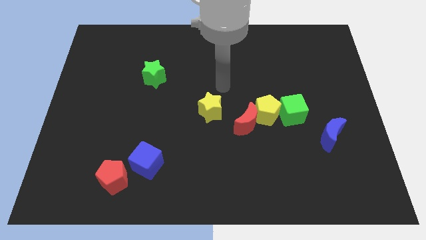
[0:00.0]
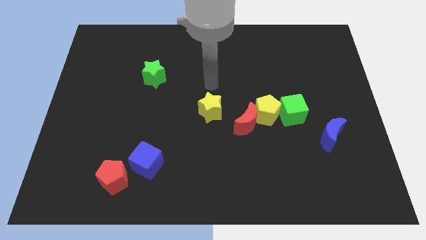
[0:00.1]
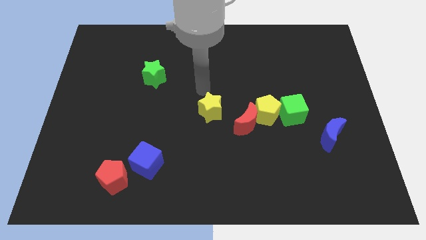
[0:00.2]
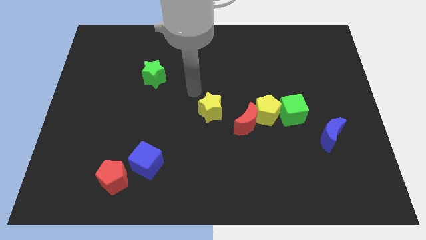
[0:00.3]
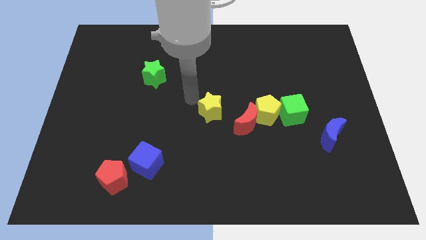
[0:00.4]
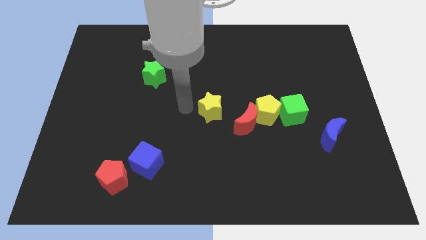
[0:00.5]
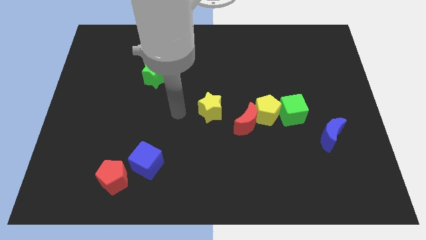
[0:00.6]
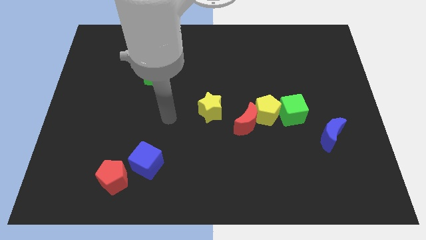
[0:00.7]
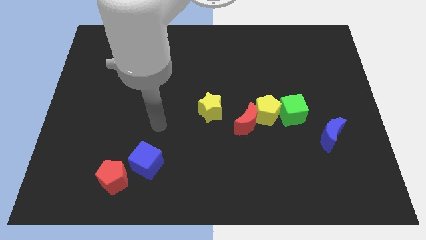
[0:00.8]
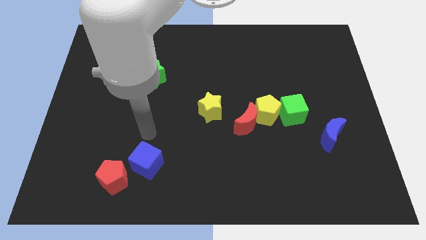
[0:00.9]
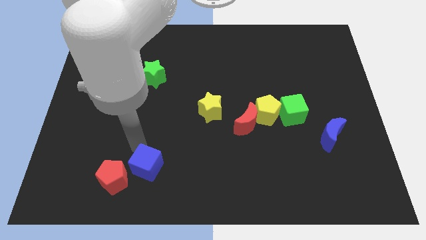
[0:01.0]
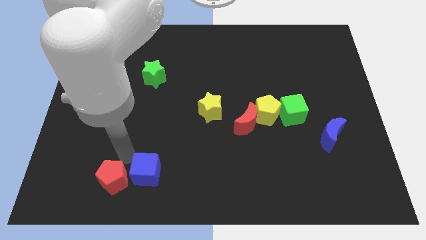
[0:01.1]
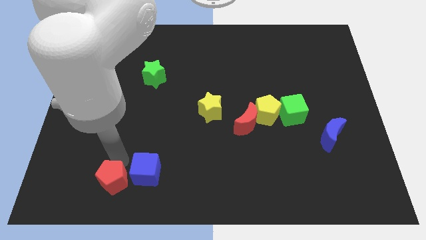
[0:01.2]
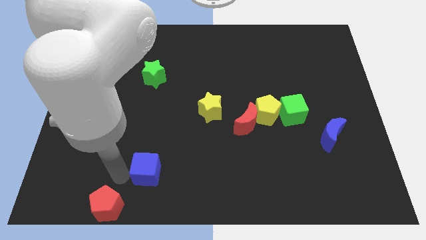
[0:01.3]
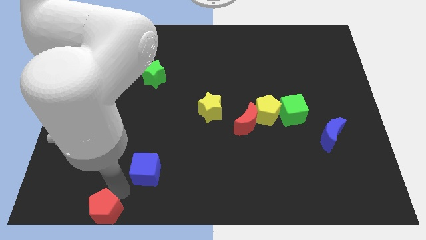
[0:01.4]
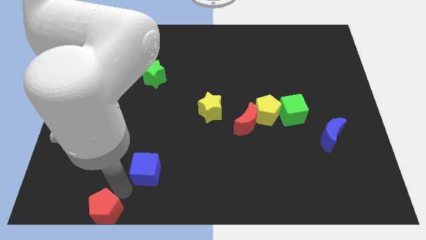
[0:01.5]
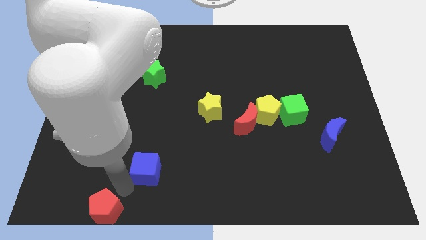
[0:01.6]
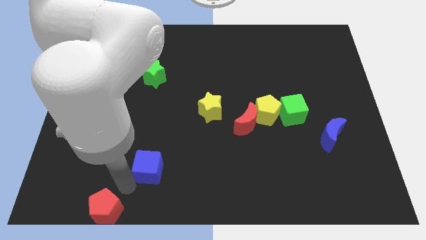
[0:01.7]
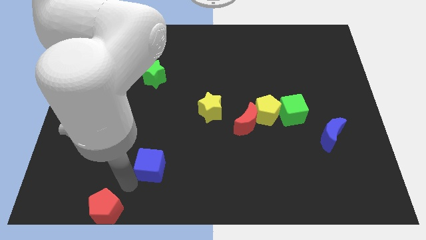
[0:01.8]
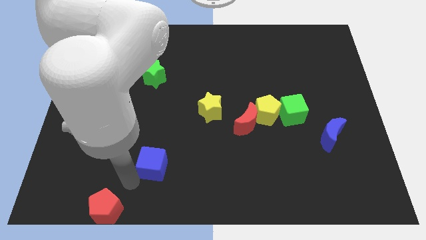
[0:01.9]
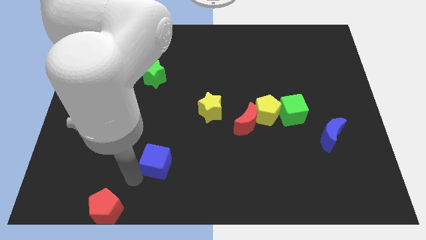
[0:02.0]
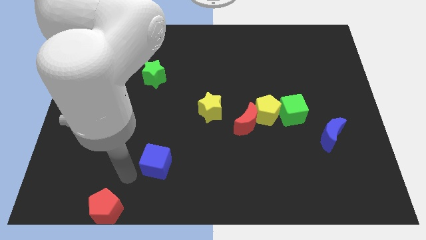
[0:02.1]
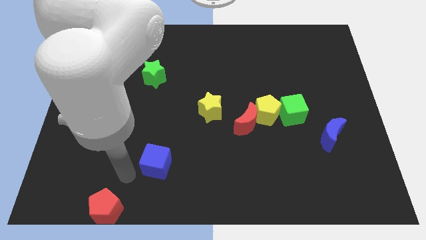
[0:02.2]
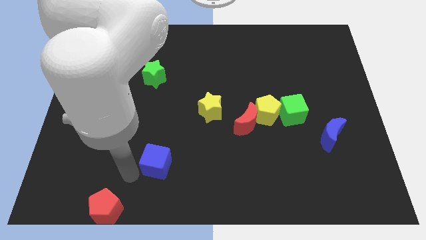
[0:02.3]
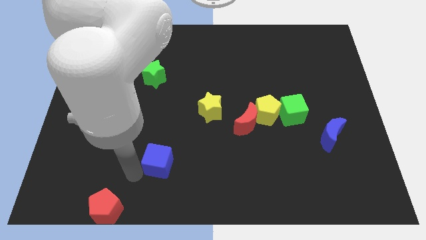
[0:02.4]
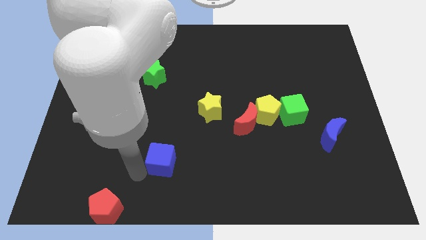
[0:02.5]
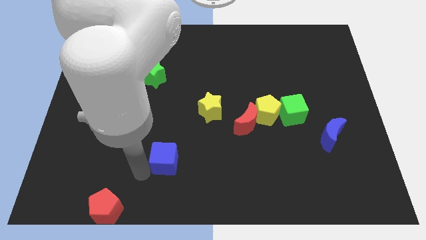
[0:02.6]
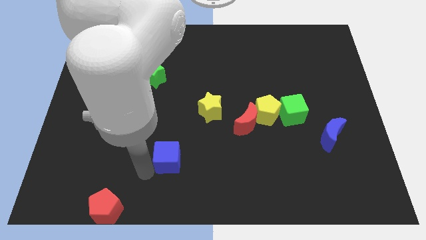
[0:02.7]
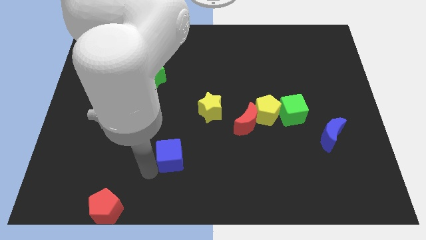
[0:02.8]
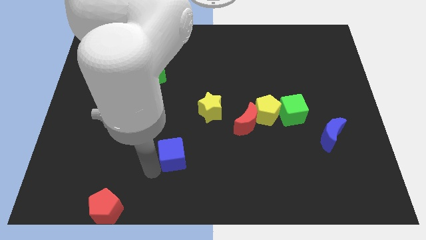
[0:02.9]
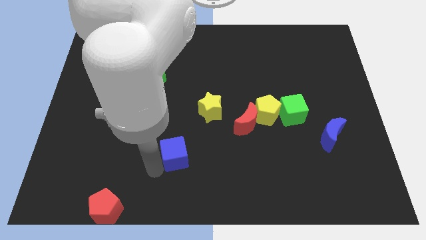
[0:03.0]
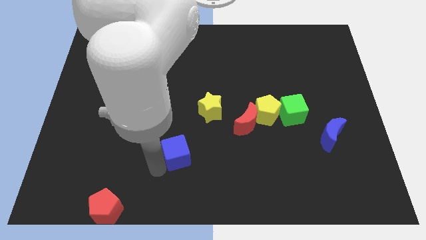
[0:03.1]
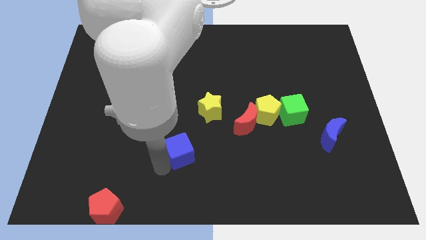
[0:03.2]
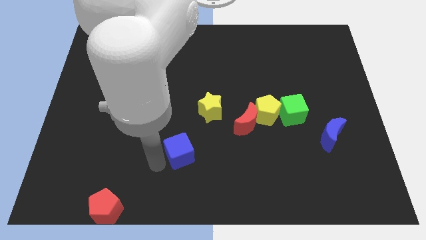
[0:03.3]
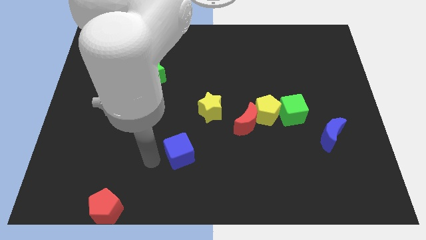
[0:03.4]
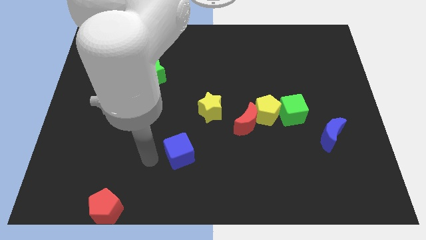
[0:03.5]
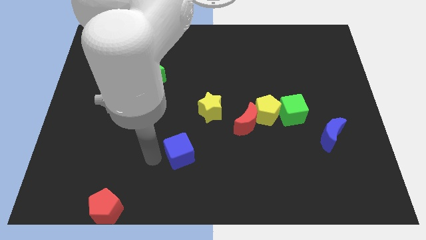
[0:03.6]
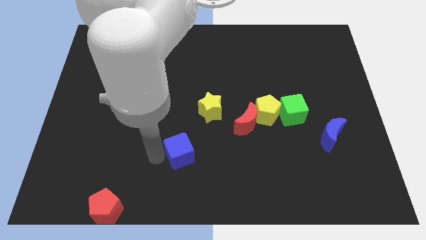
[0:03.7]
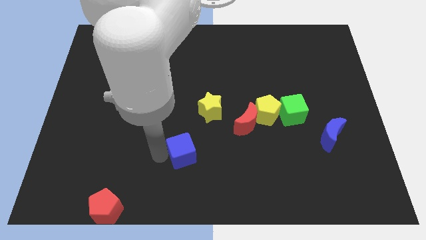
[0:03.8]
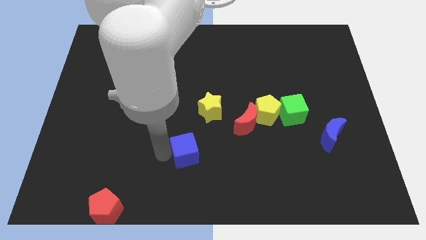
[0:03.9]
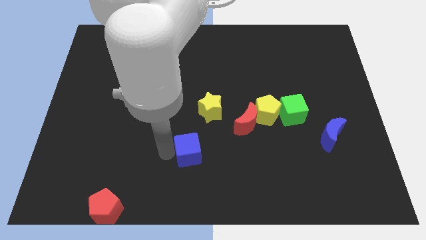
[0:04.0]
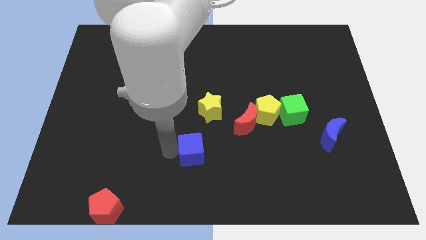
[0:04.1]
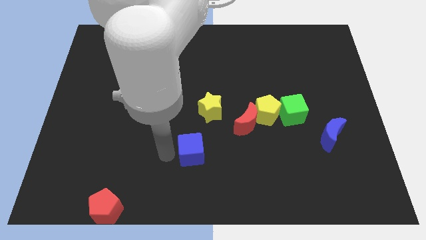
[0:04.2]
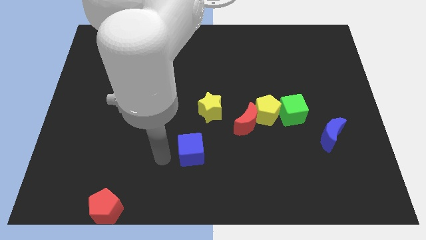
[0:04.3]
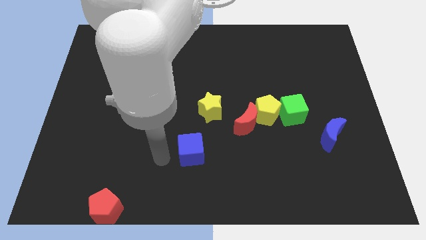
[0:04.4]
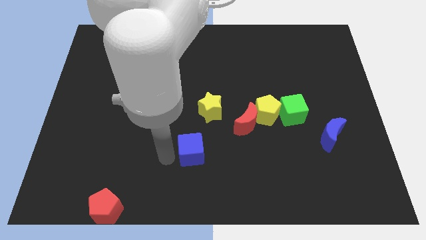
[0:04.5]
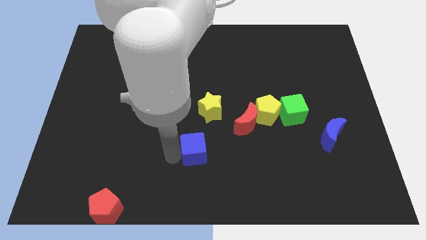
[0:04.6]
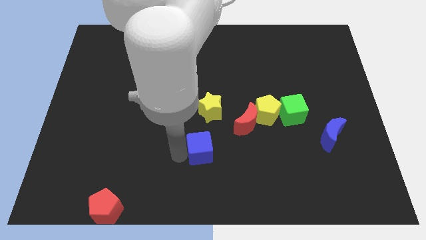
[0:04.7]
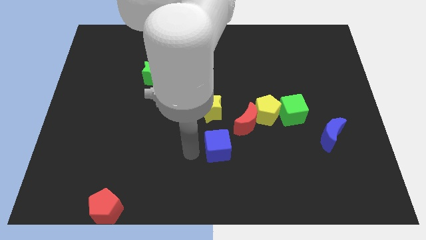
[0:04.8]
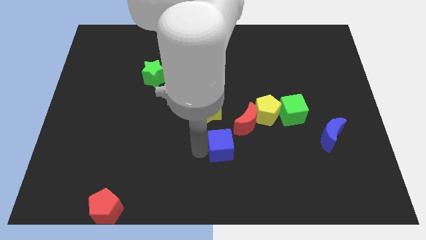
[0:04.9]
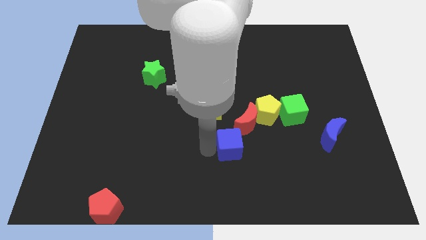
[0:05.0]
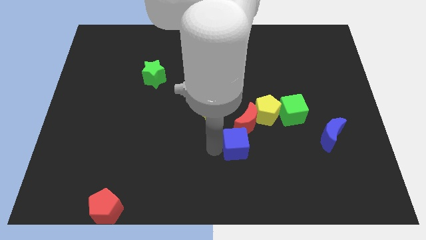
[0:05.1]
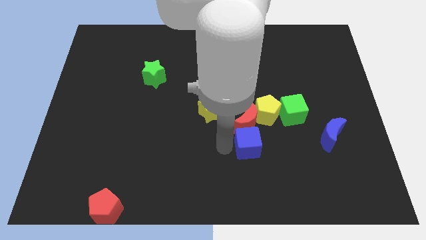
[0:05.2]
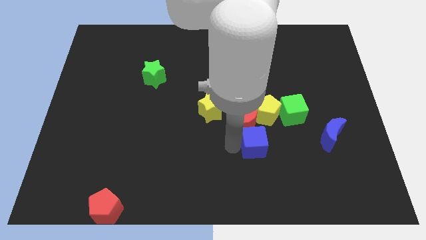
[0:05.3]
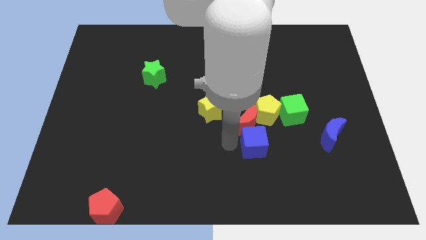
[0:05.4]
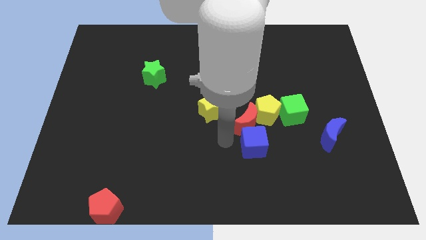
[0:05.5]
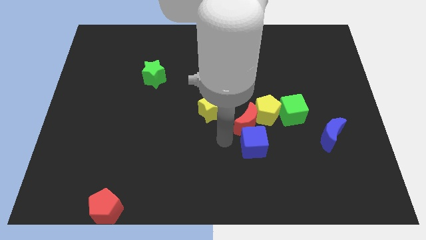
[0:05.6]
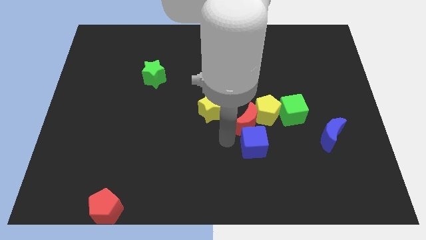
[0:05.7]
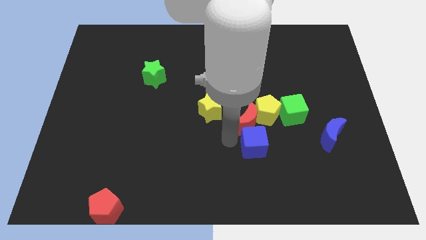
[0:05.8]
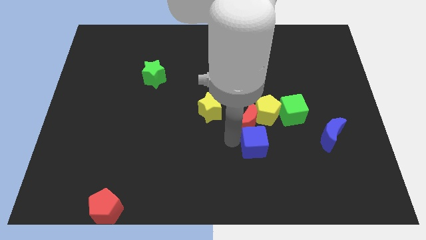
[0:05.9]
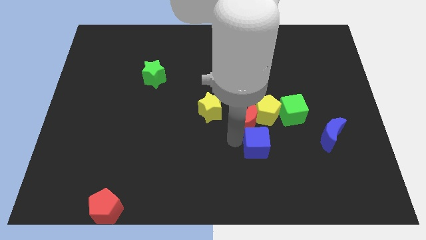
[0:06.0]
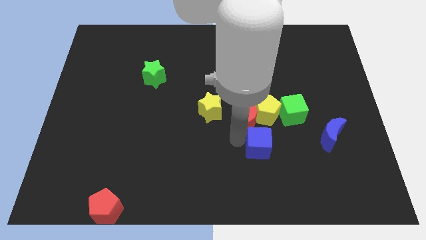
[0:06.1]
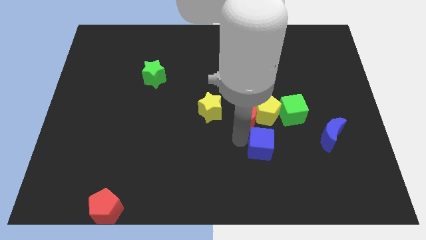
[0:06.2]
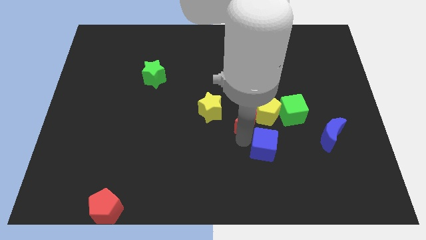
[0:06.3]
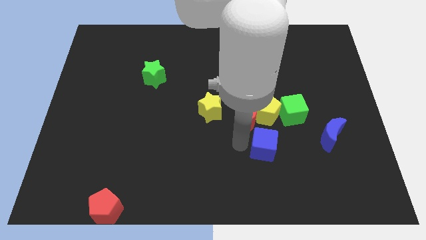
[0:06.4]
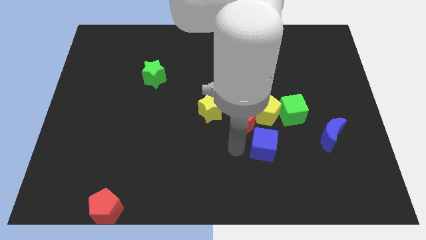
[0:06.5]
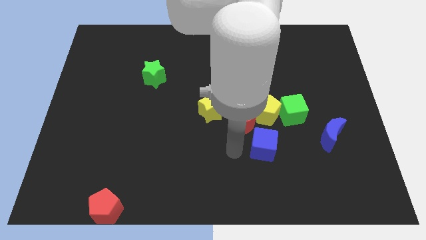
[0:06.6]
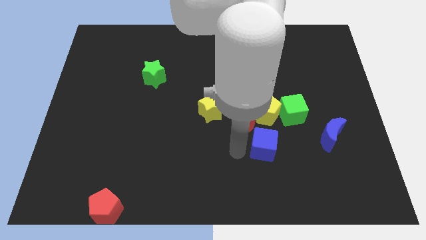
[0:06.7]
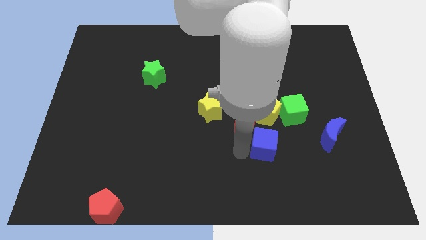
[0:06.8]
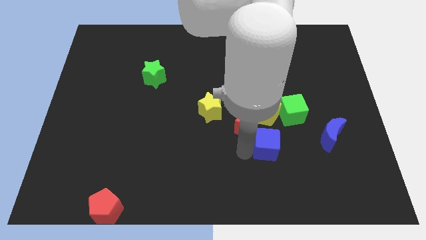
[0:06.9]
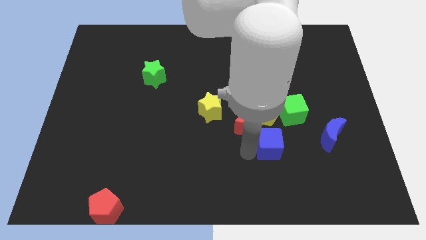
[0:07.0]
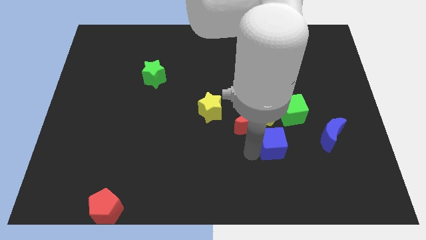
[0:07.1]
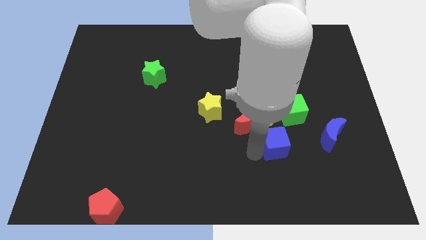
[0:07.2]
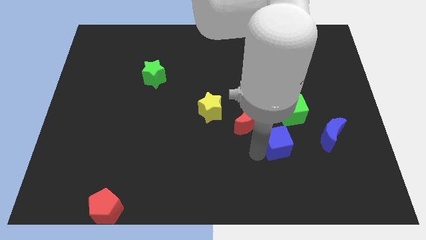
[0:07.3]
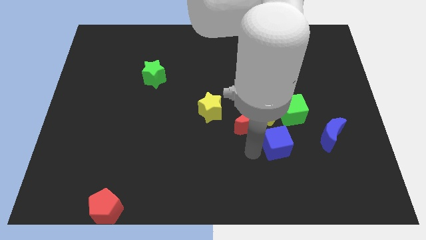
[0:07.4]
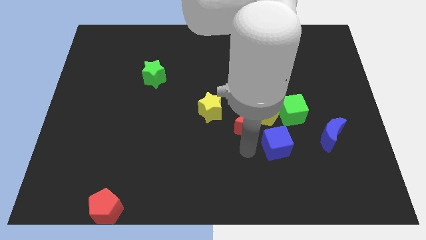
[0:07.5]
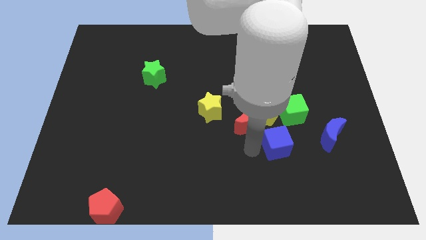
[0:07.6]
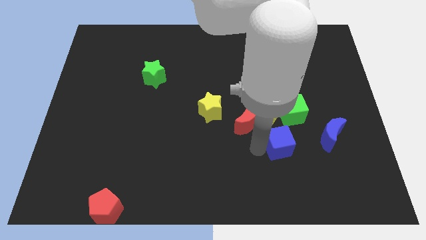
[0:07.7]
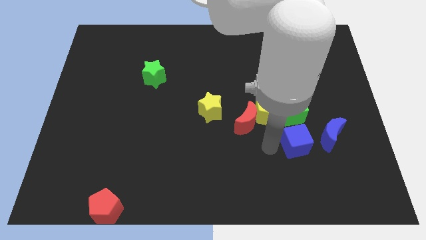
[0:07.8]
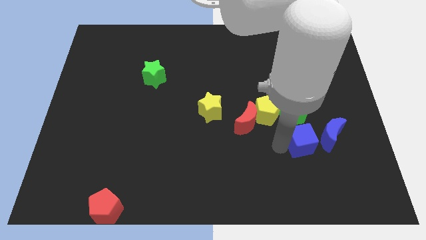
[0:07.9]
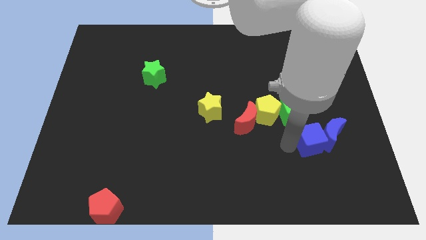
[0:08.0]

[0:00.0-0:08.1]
move the blue cube towards the blue moon

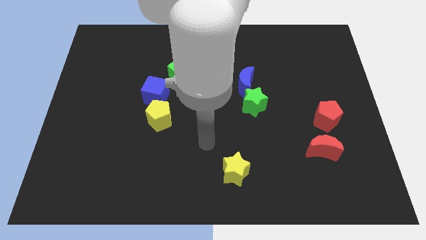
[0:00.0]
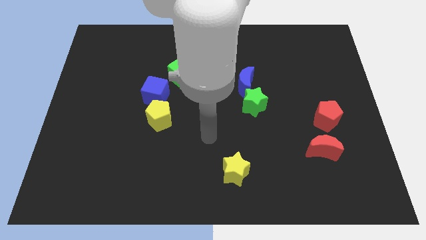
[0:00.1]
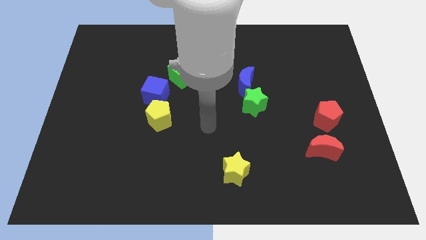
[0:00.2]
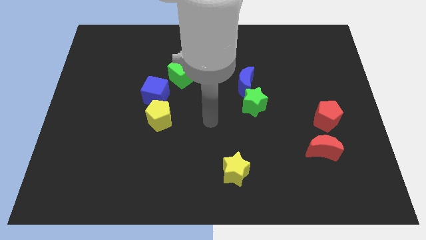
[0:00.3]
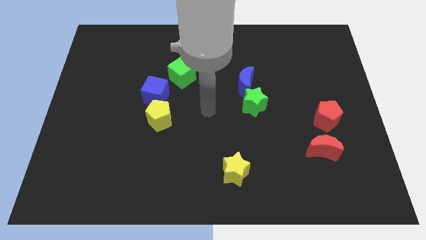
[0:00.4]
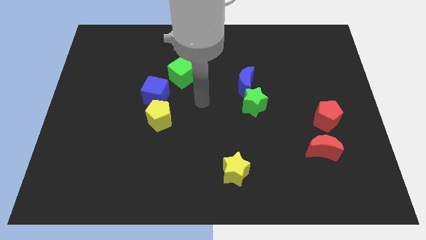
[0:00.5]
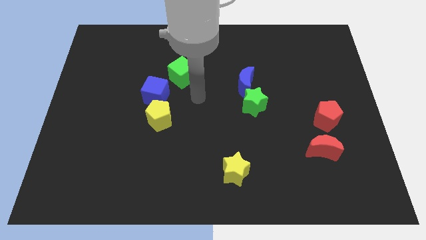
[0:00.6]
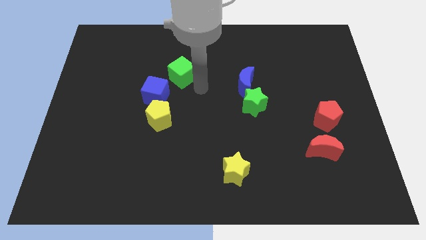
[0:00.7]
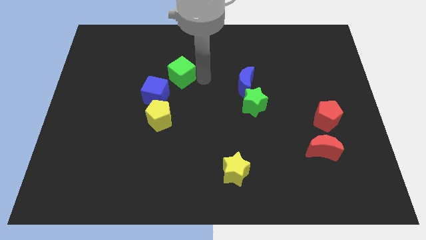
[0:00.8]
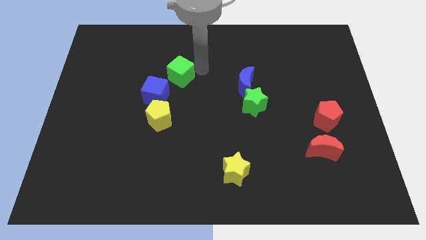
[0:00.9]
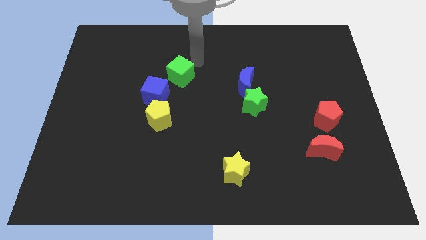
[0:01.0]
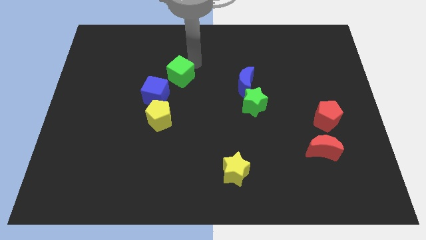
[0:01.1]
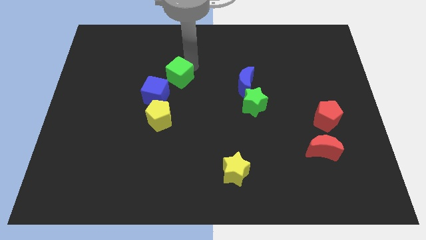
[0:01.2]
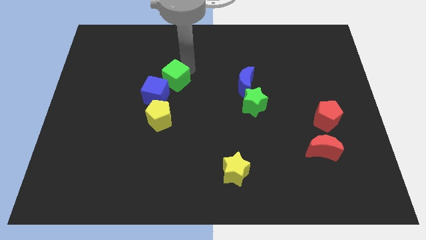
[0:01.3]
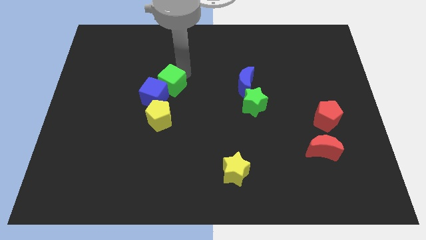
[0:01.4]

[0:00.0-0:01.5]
move the green cube next to the blue cube
